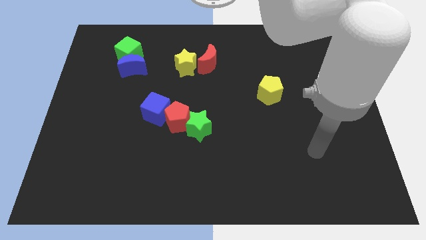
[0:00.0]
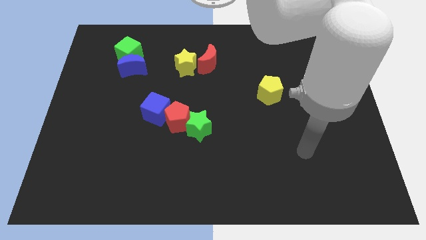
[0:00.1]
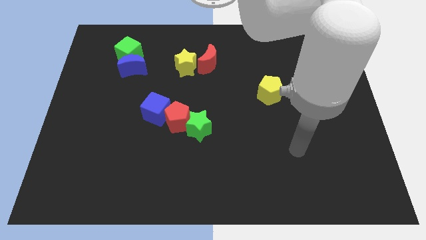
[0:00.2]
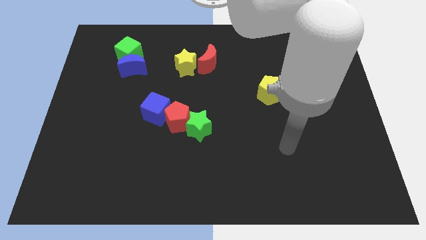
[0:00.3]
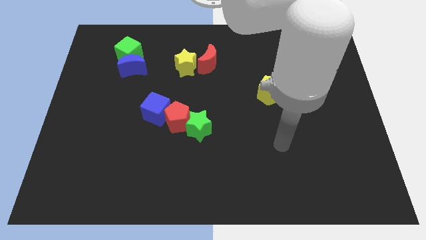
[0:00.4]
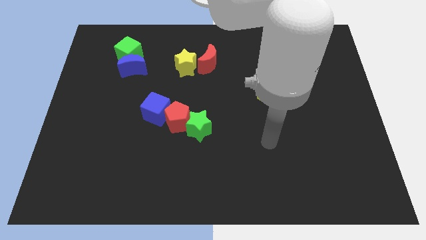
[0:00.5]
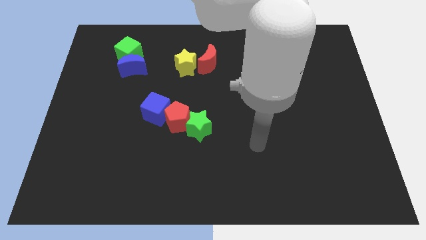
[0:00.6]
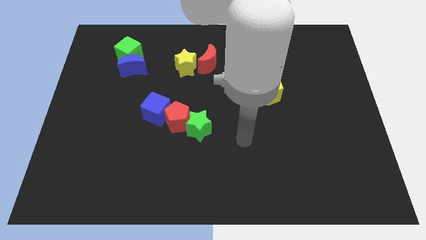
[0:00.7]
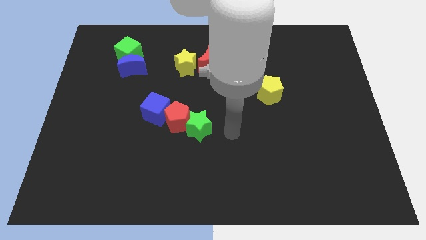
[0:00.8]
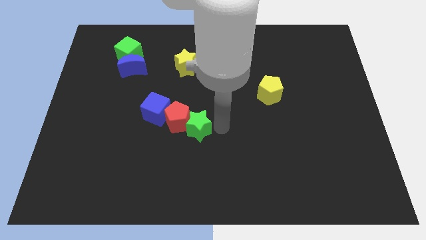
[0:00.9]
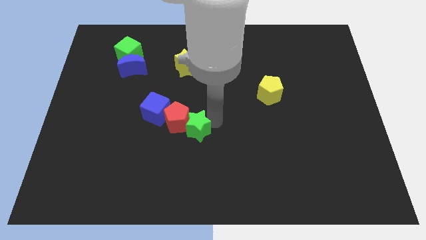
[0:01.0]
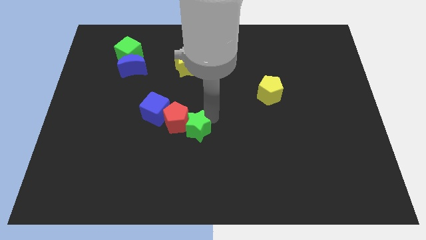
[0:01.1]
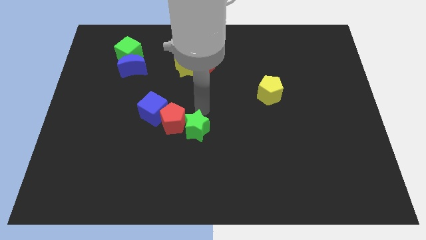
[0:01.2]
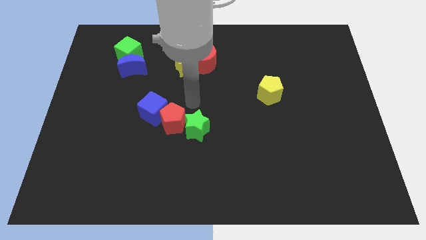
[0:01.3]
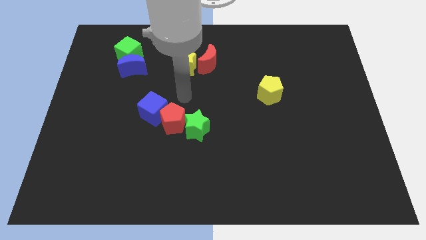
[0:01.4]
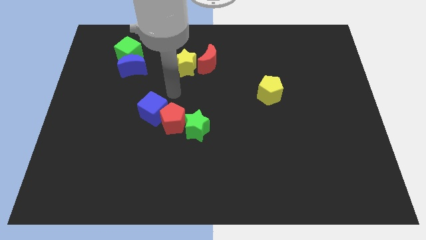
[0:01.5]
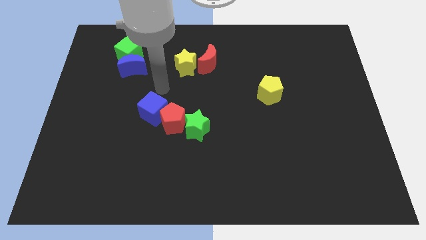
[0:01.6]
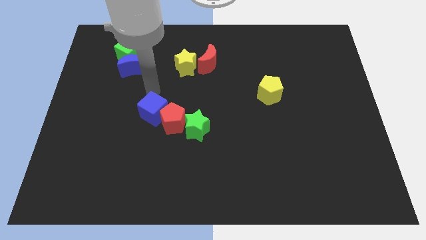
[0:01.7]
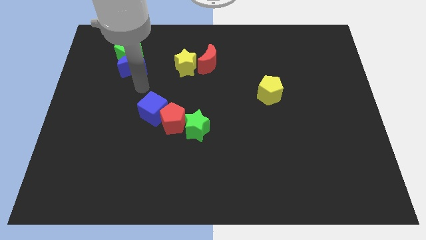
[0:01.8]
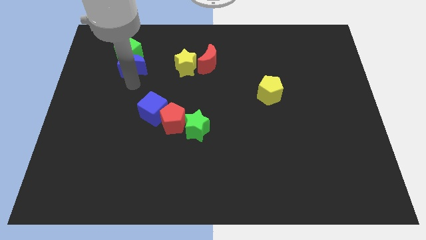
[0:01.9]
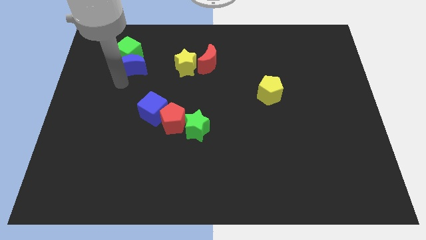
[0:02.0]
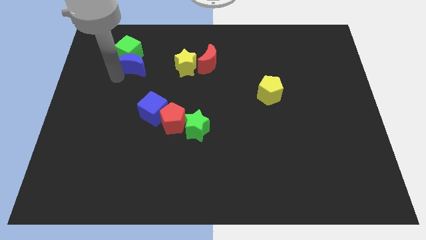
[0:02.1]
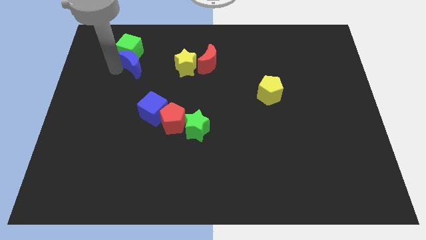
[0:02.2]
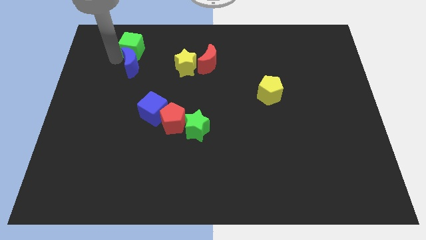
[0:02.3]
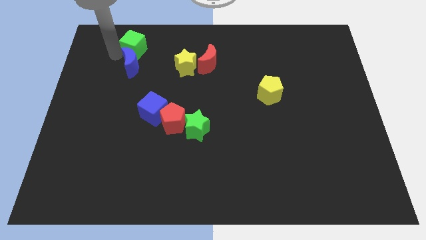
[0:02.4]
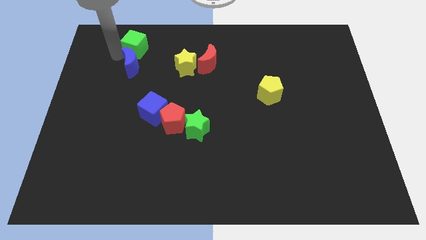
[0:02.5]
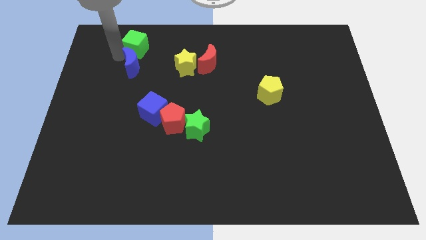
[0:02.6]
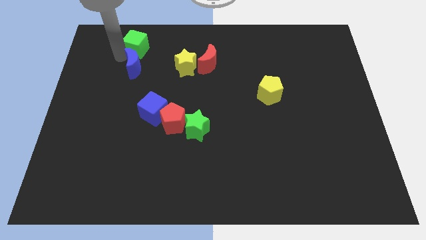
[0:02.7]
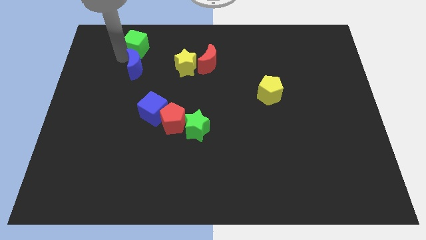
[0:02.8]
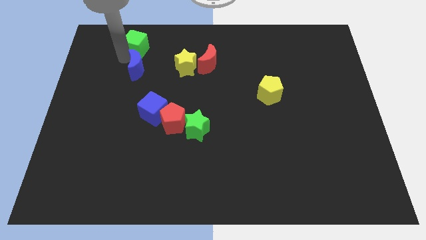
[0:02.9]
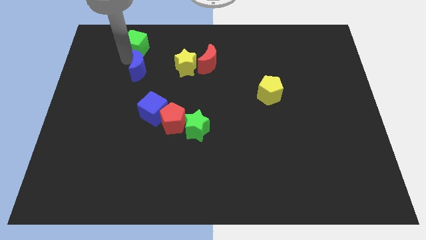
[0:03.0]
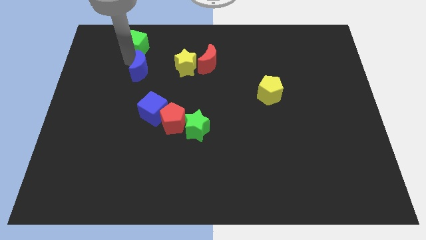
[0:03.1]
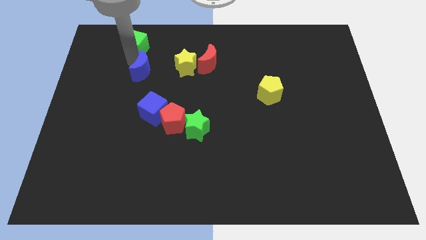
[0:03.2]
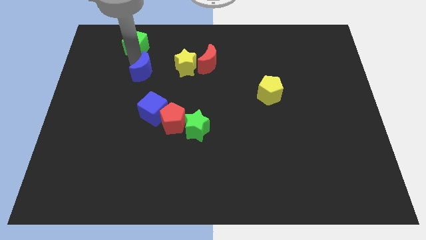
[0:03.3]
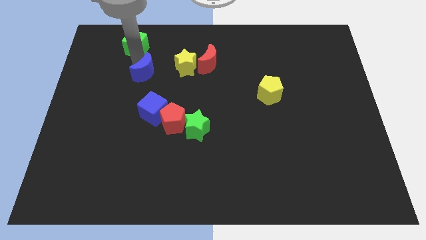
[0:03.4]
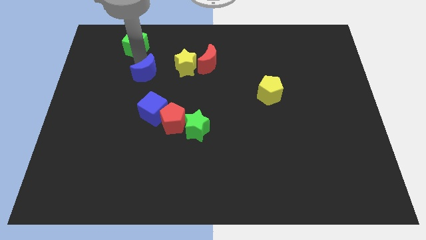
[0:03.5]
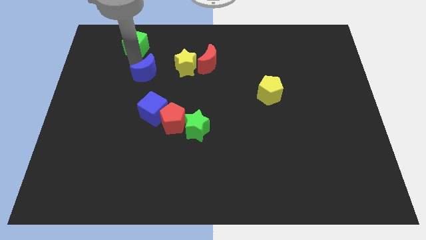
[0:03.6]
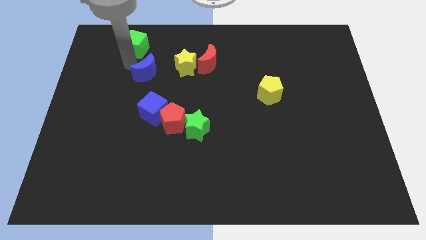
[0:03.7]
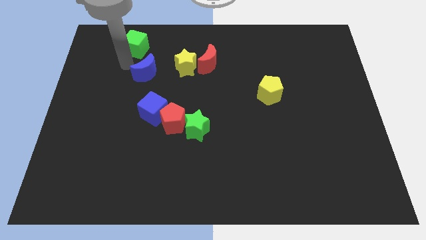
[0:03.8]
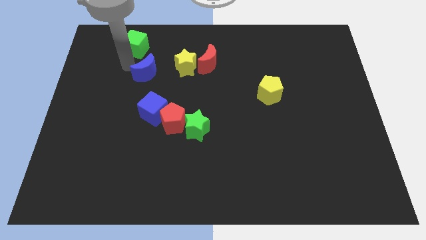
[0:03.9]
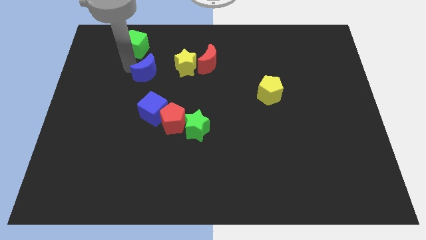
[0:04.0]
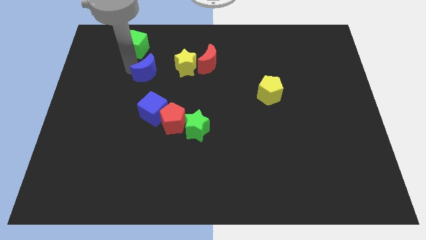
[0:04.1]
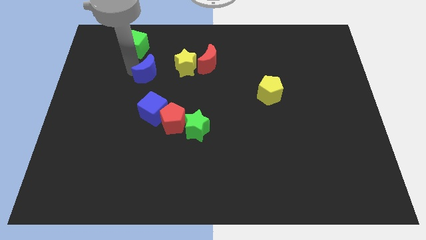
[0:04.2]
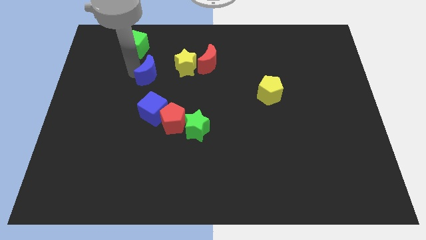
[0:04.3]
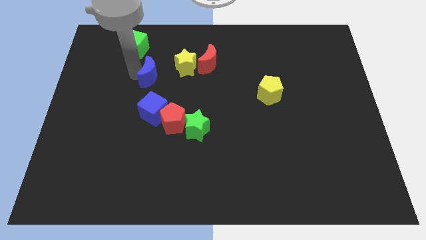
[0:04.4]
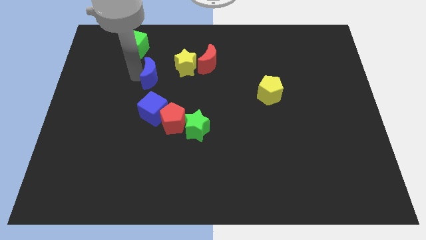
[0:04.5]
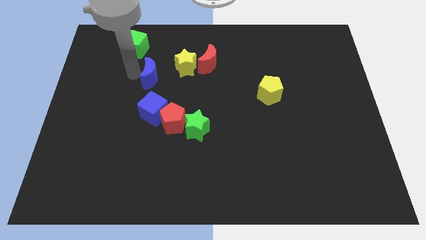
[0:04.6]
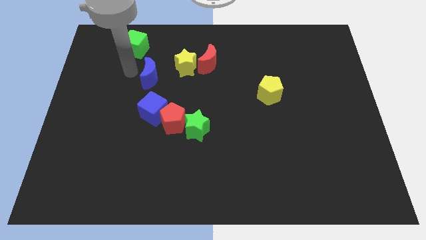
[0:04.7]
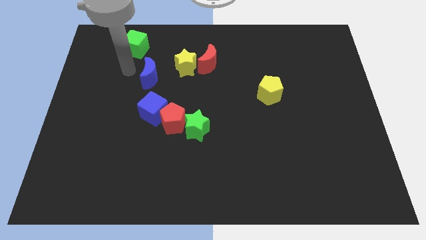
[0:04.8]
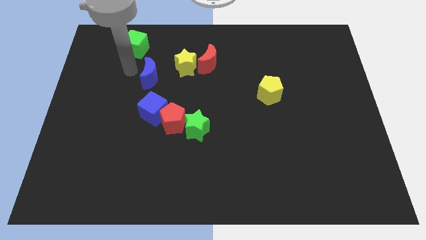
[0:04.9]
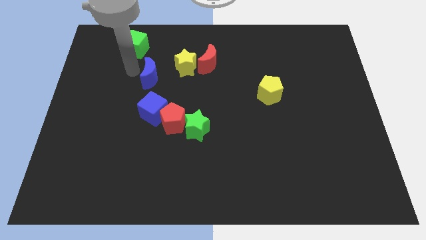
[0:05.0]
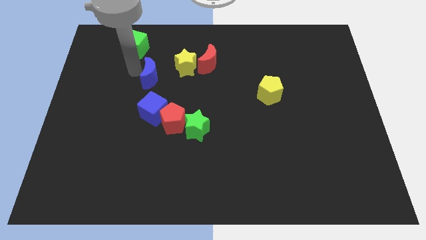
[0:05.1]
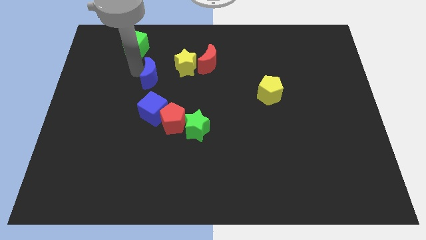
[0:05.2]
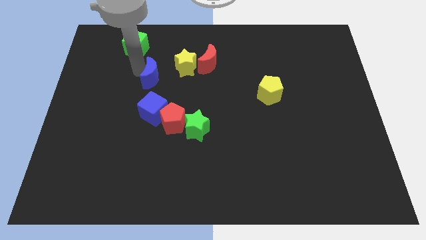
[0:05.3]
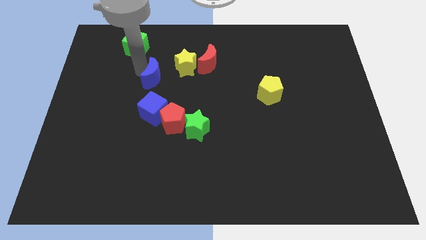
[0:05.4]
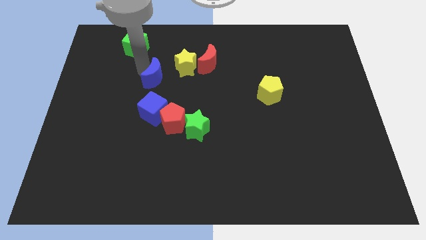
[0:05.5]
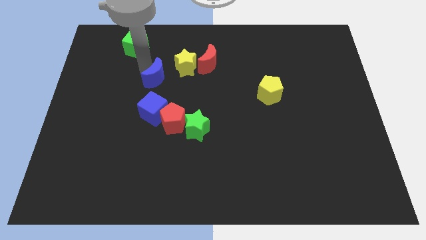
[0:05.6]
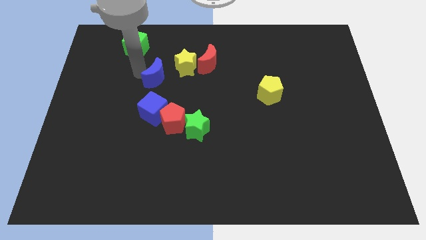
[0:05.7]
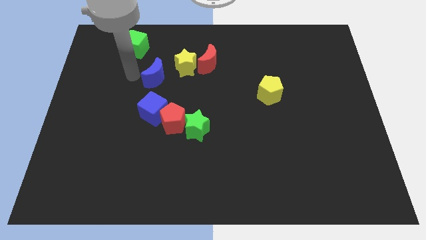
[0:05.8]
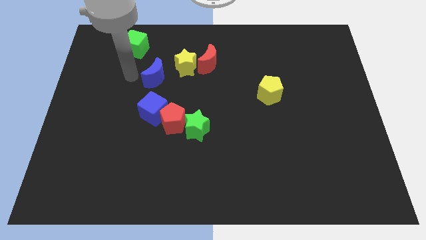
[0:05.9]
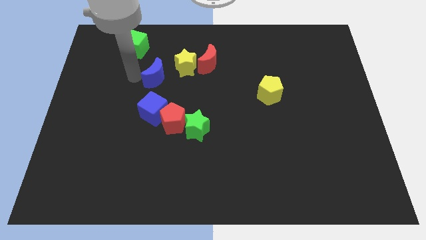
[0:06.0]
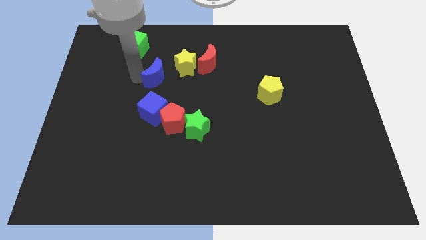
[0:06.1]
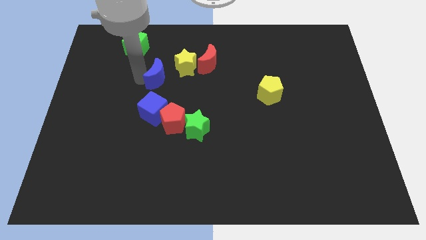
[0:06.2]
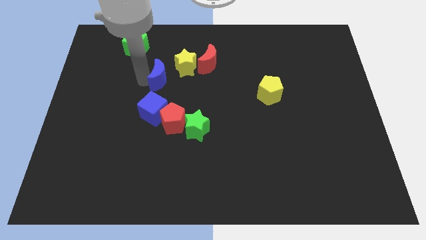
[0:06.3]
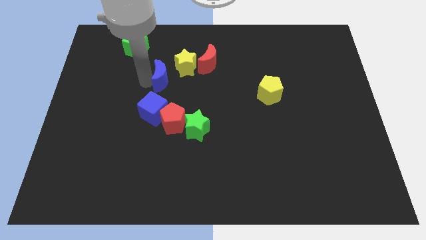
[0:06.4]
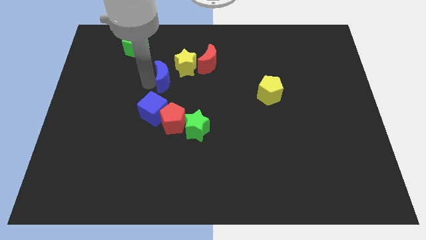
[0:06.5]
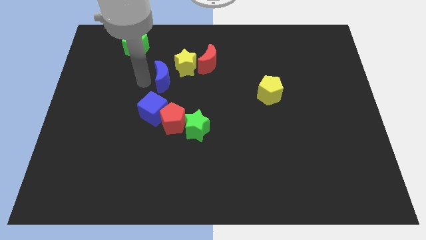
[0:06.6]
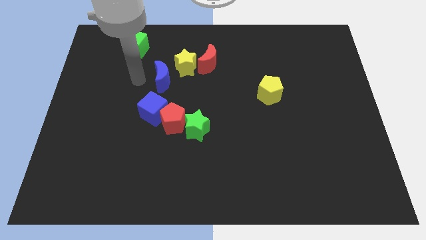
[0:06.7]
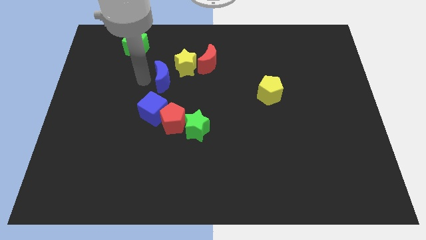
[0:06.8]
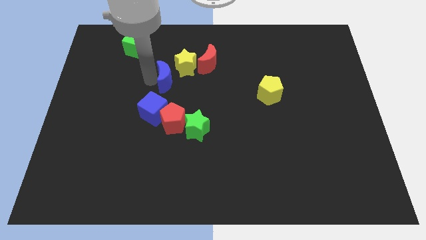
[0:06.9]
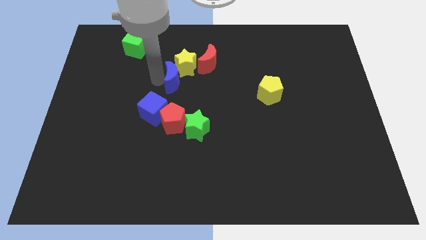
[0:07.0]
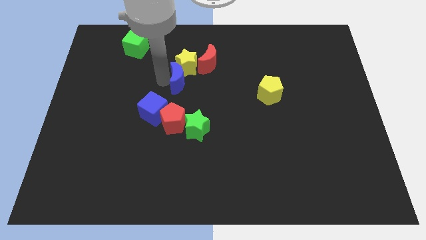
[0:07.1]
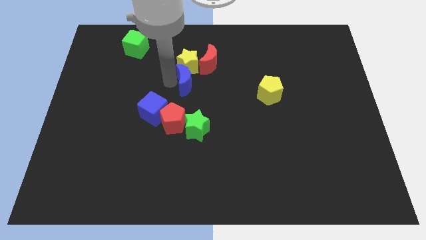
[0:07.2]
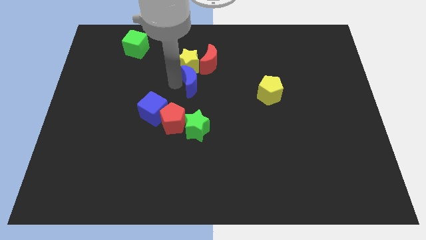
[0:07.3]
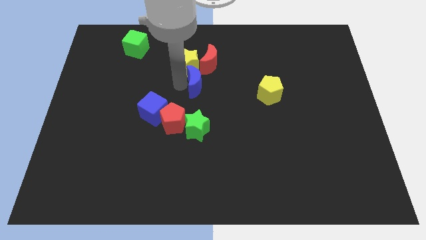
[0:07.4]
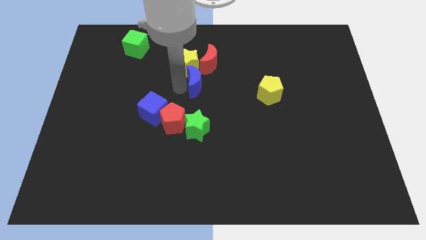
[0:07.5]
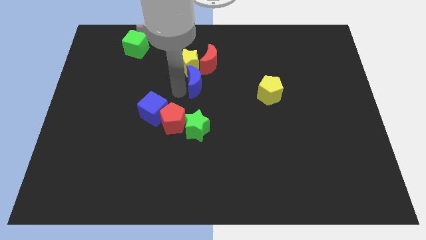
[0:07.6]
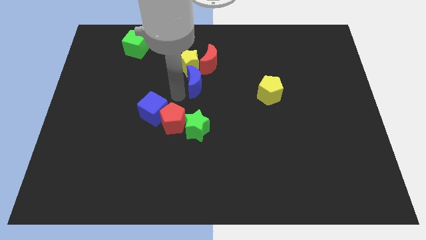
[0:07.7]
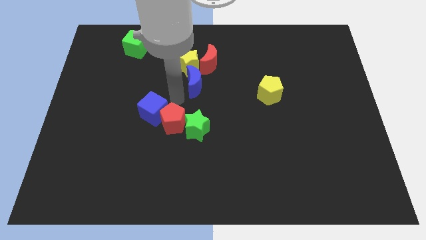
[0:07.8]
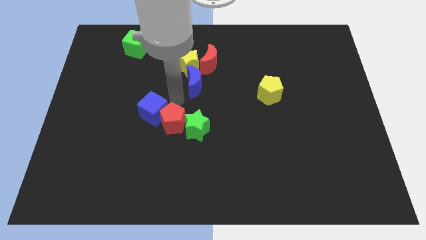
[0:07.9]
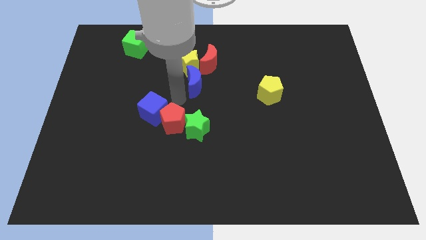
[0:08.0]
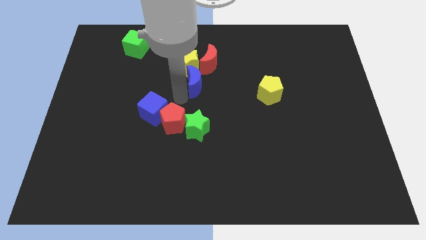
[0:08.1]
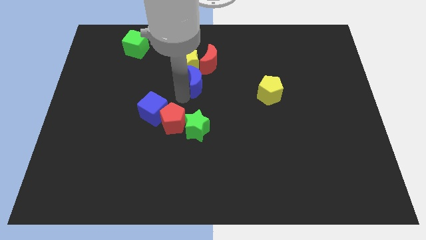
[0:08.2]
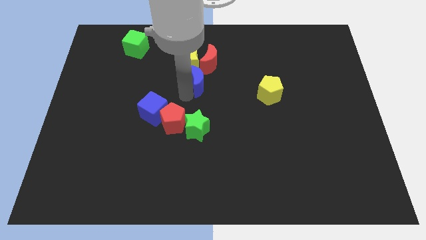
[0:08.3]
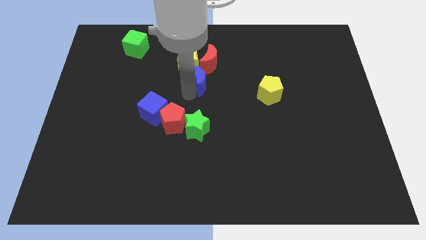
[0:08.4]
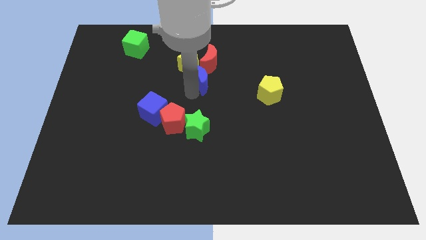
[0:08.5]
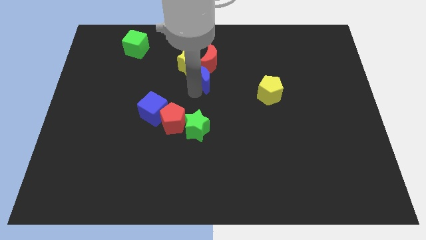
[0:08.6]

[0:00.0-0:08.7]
push the blue moon to the red moon
